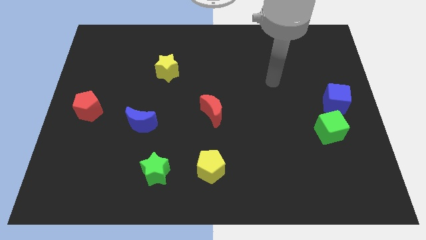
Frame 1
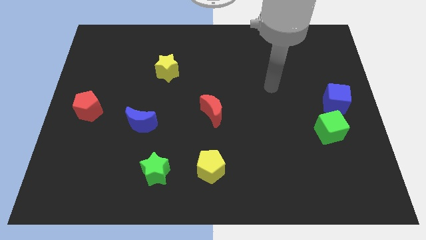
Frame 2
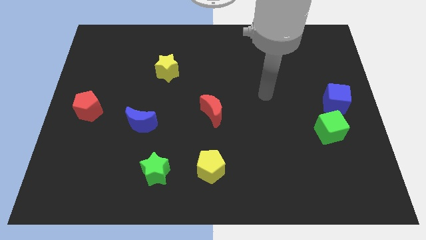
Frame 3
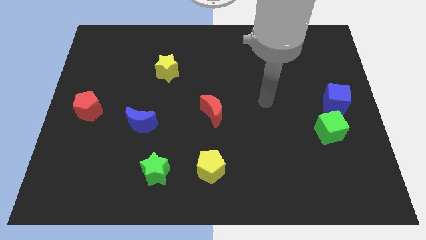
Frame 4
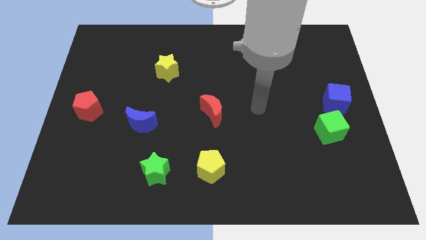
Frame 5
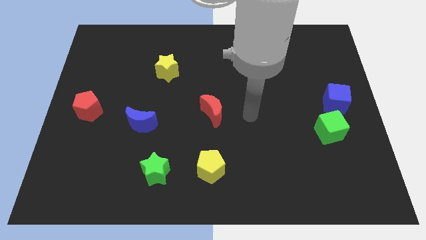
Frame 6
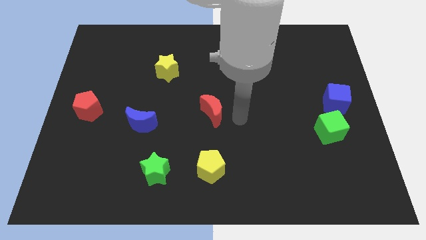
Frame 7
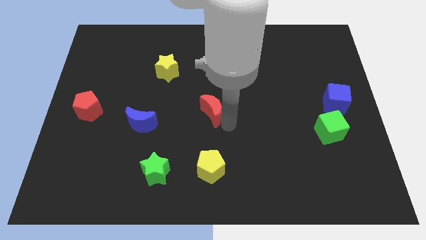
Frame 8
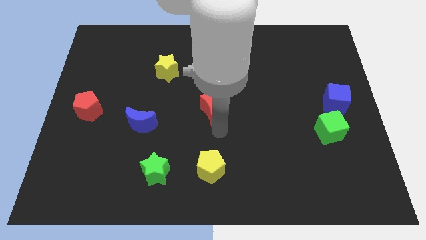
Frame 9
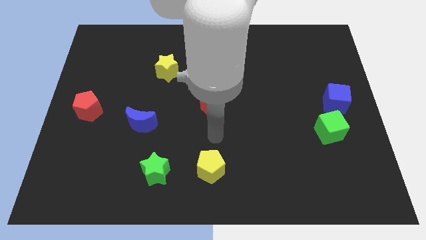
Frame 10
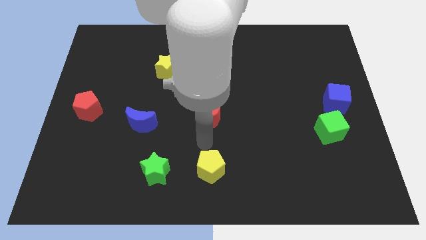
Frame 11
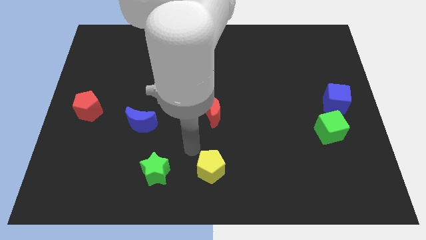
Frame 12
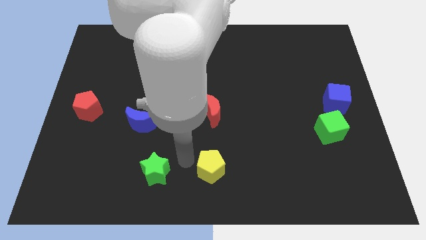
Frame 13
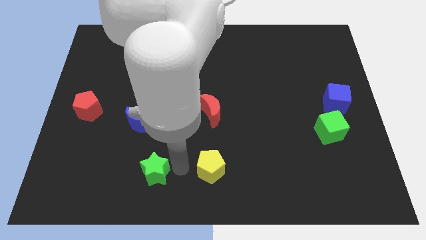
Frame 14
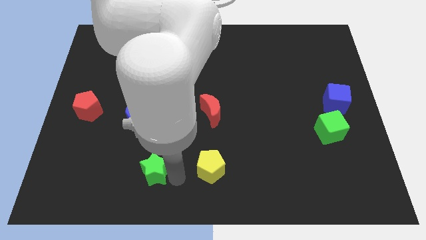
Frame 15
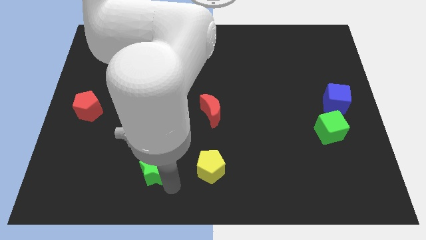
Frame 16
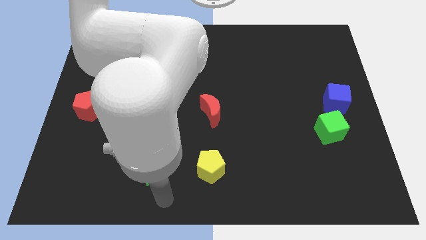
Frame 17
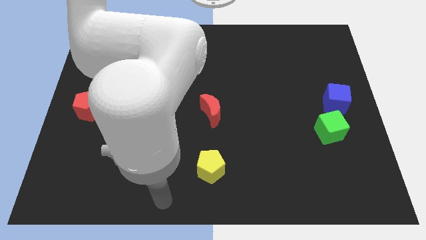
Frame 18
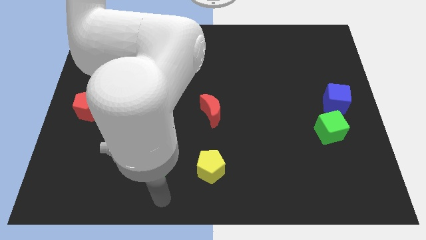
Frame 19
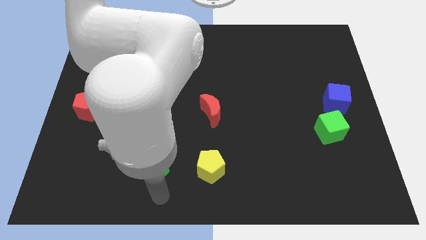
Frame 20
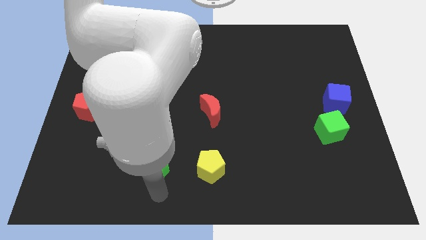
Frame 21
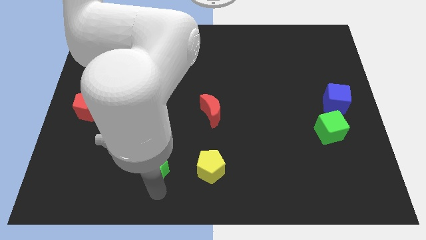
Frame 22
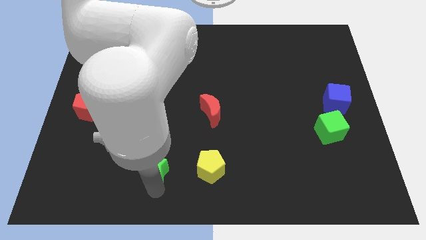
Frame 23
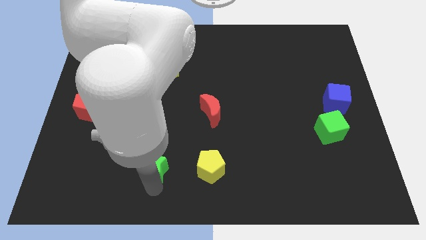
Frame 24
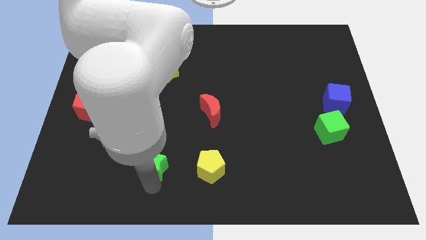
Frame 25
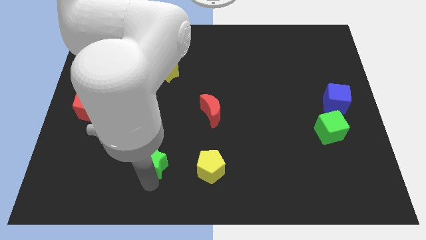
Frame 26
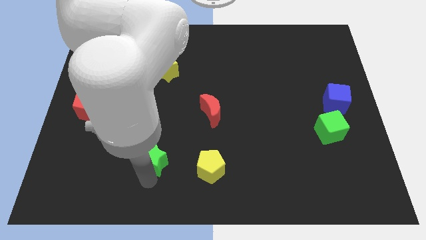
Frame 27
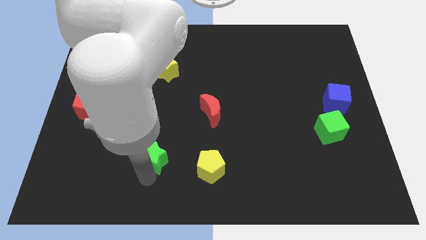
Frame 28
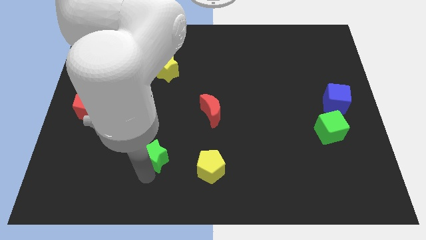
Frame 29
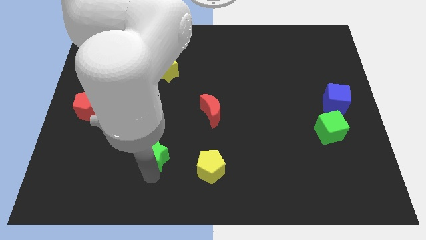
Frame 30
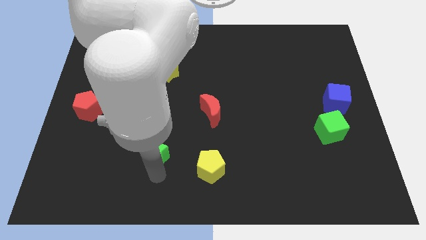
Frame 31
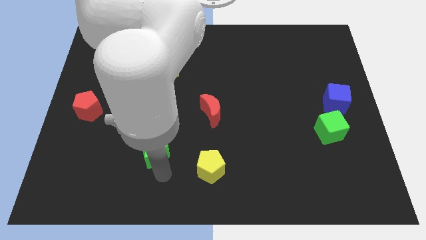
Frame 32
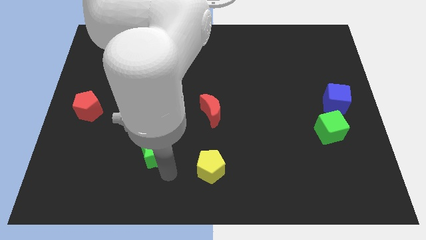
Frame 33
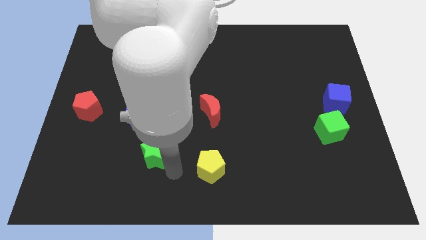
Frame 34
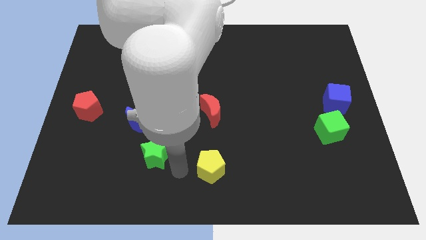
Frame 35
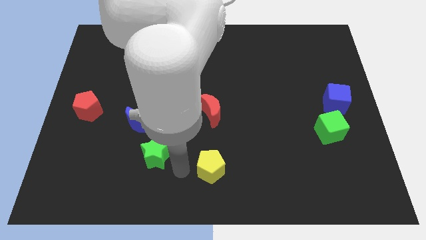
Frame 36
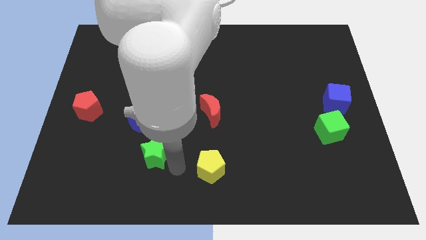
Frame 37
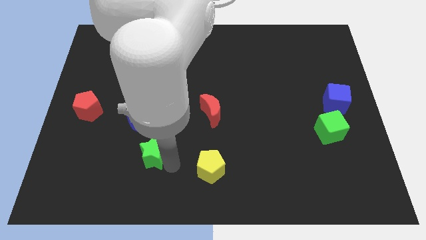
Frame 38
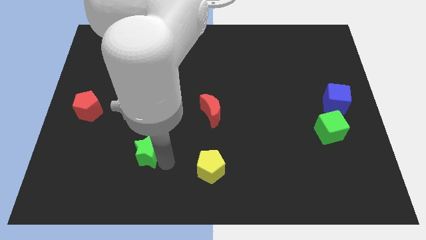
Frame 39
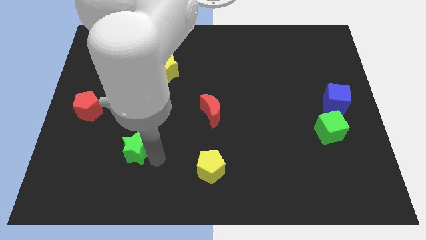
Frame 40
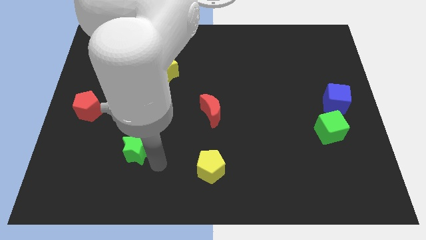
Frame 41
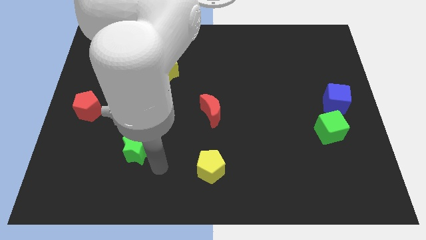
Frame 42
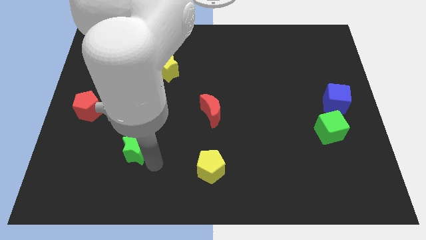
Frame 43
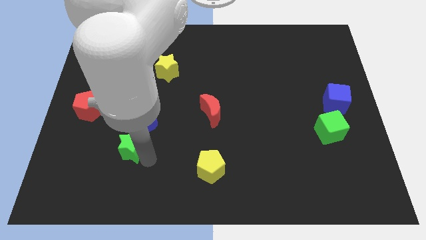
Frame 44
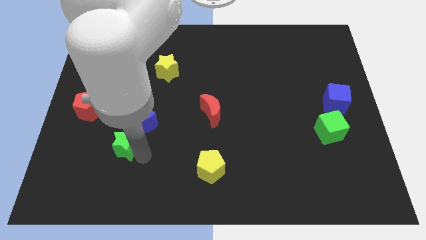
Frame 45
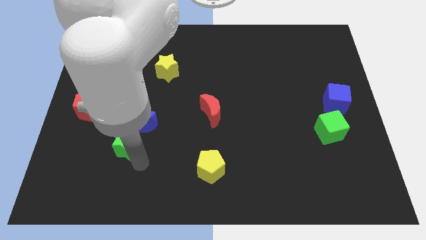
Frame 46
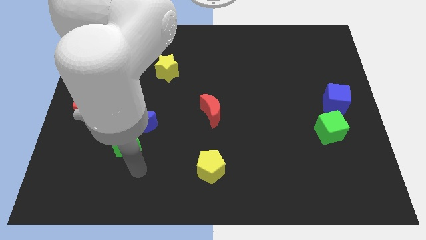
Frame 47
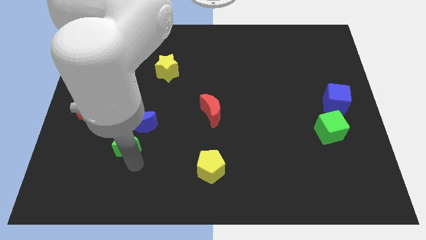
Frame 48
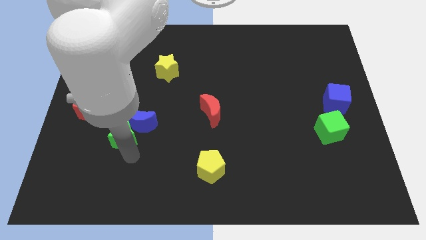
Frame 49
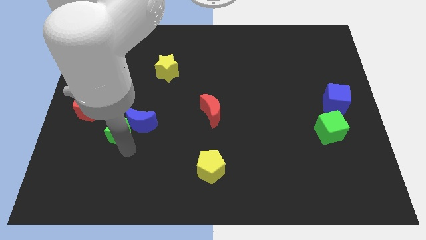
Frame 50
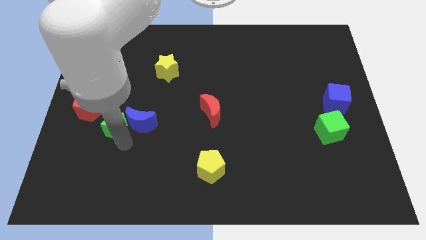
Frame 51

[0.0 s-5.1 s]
move the green star diagonally up and to the left of the blue moon

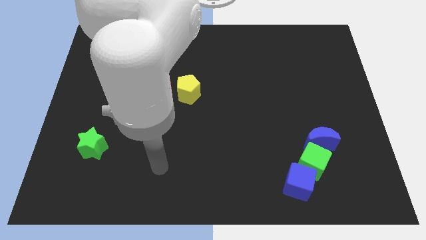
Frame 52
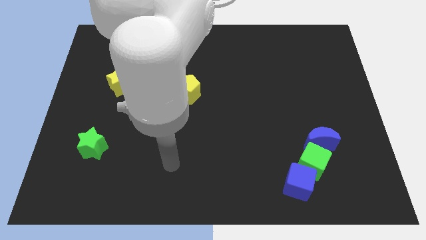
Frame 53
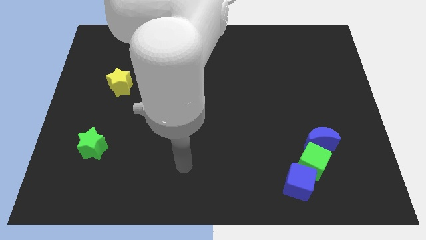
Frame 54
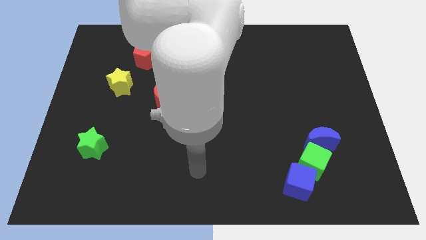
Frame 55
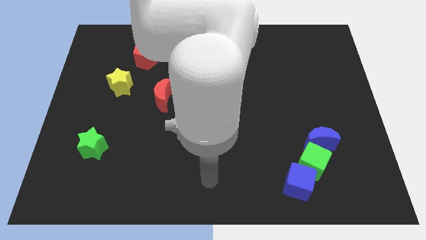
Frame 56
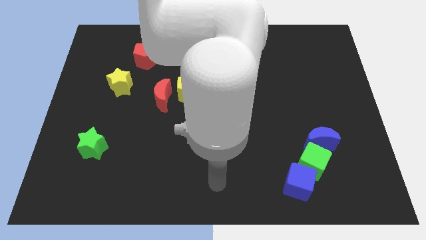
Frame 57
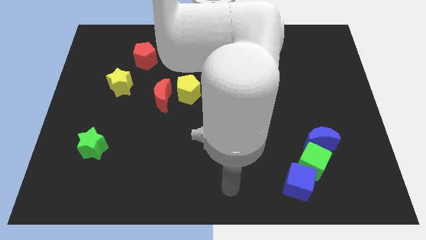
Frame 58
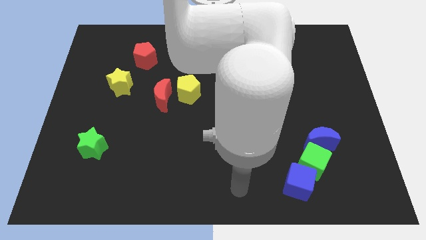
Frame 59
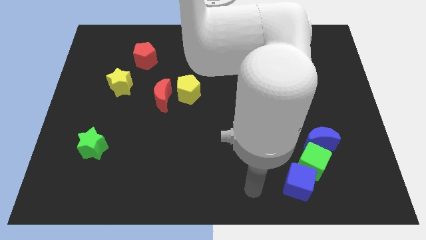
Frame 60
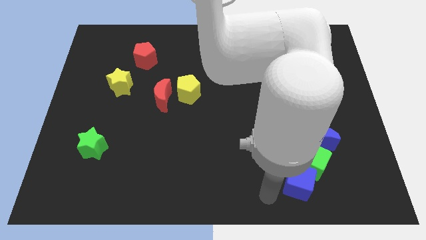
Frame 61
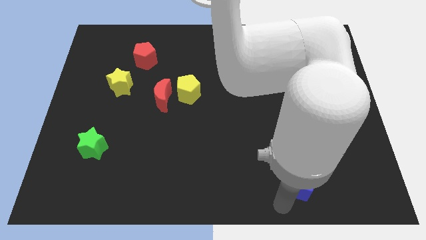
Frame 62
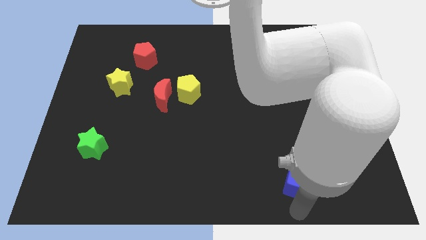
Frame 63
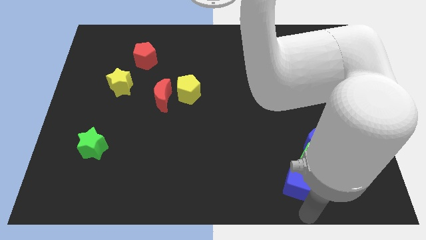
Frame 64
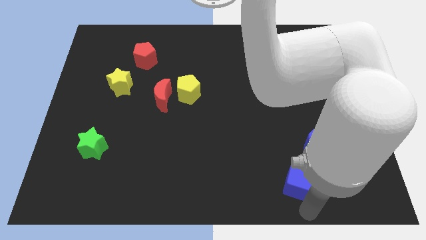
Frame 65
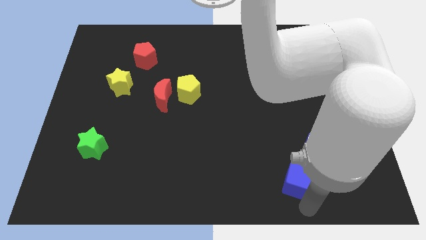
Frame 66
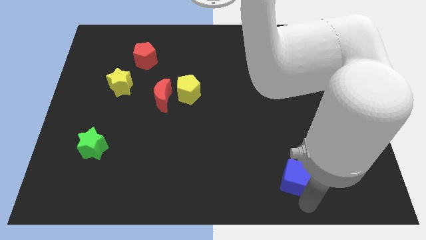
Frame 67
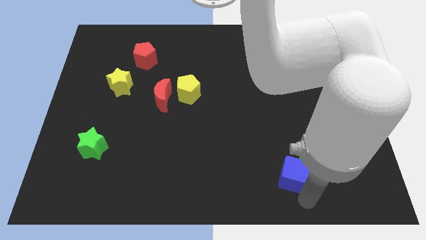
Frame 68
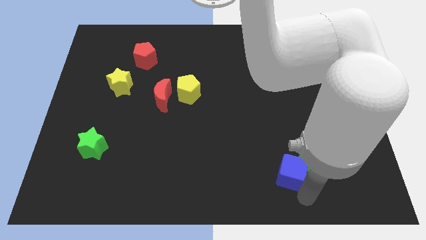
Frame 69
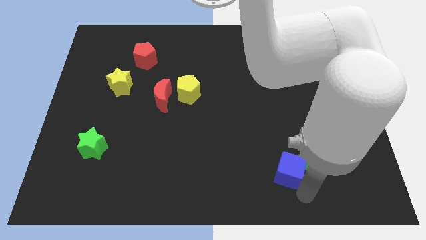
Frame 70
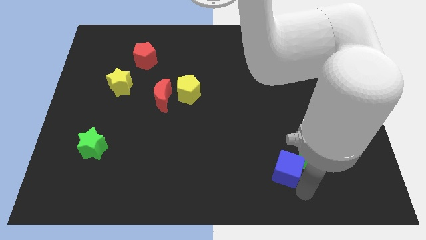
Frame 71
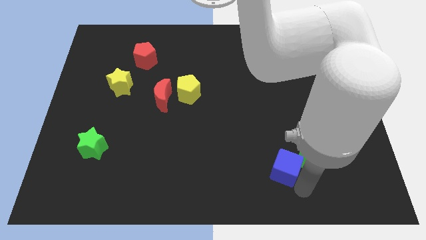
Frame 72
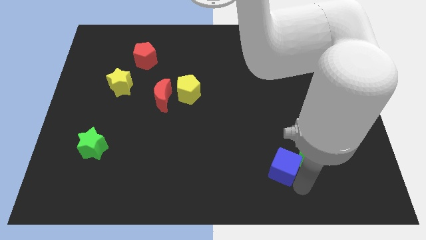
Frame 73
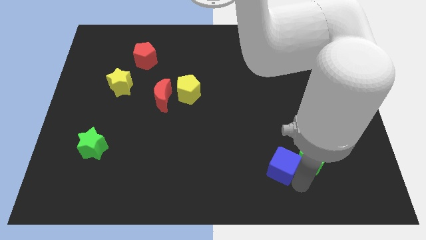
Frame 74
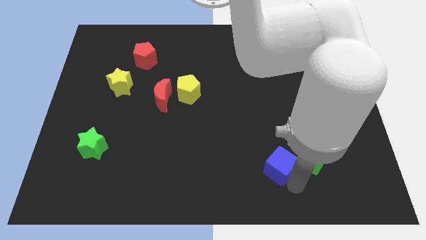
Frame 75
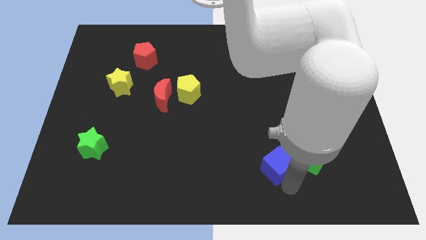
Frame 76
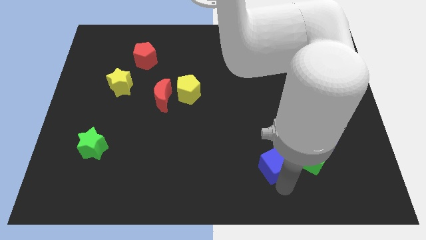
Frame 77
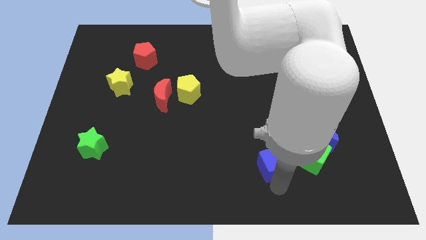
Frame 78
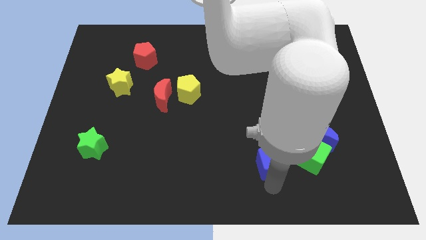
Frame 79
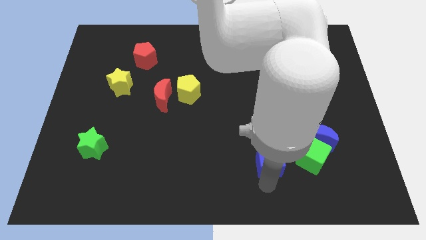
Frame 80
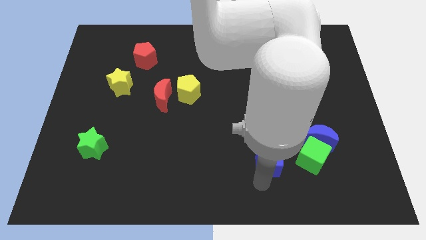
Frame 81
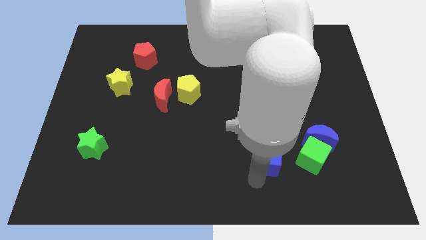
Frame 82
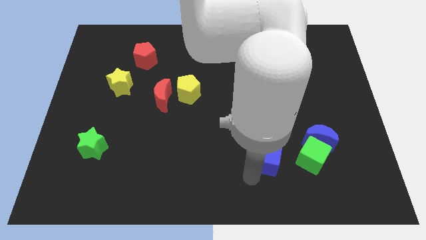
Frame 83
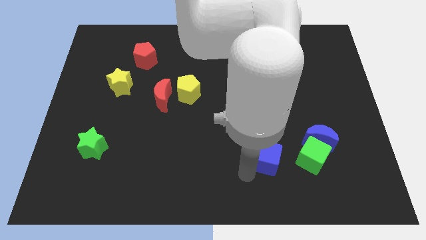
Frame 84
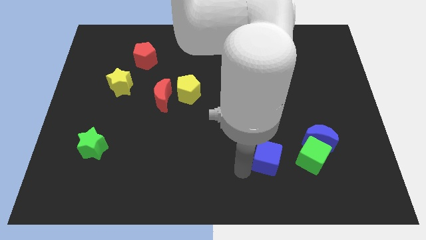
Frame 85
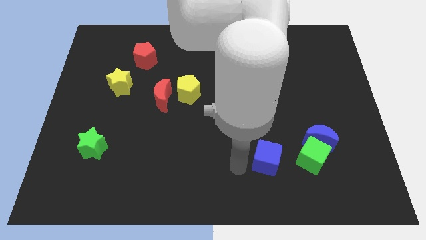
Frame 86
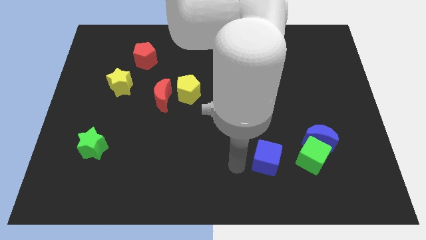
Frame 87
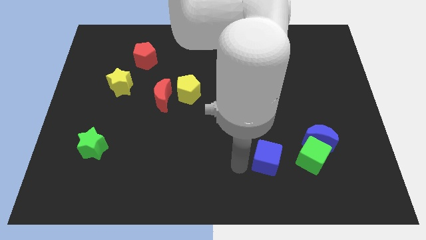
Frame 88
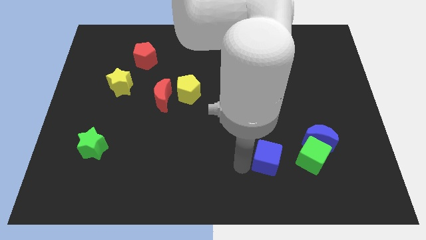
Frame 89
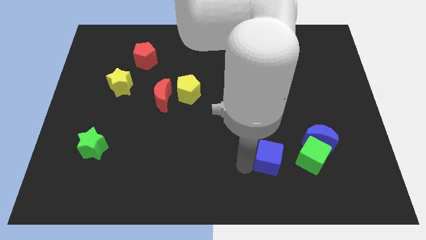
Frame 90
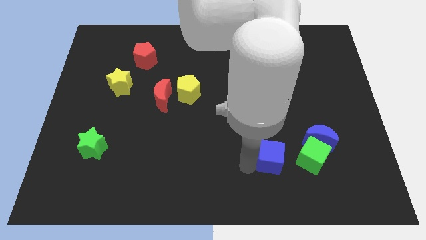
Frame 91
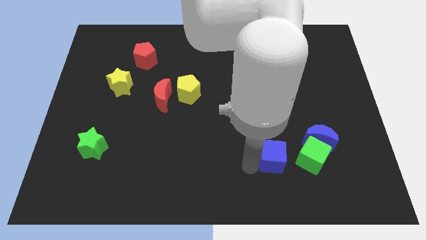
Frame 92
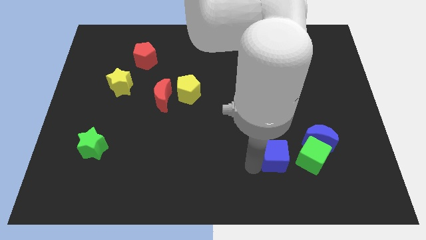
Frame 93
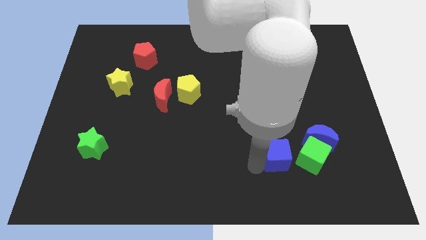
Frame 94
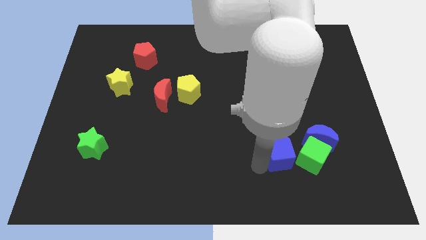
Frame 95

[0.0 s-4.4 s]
push the blue cube to the top left of the green cube
